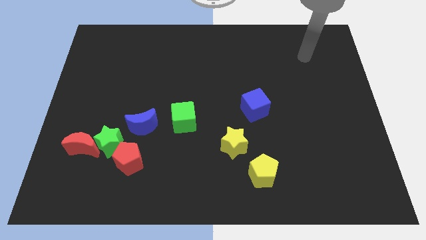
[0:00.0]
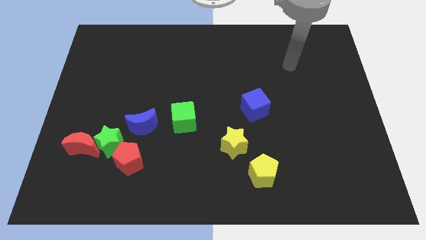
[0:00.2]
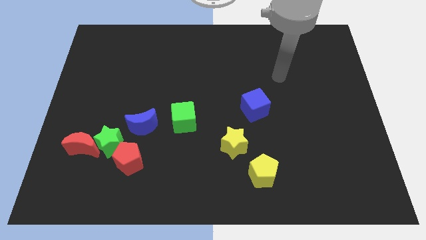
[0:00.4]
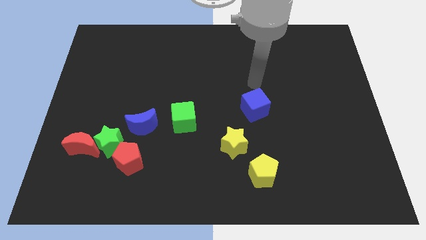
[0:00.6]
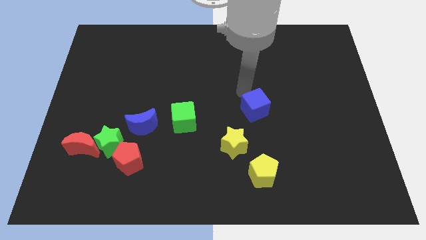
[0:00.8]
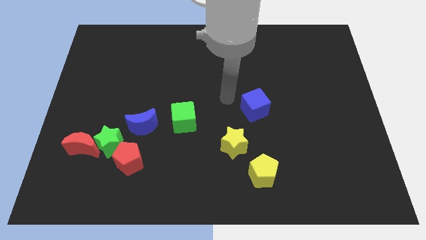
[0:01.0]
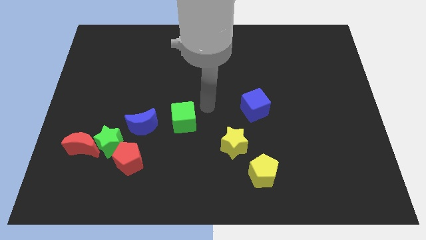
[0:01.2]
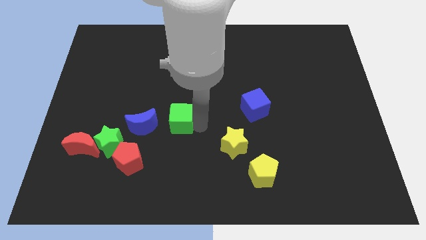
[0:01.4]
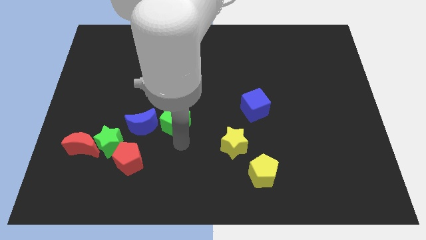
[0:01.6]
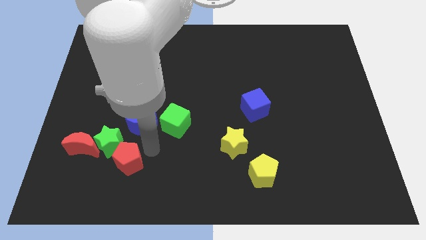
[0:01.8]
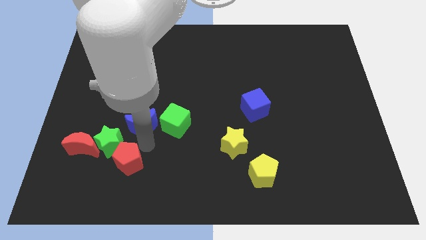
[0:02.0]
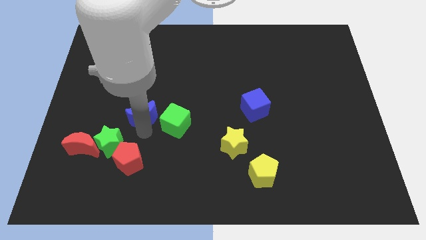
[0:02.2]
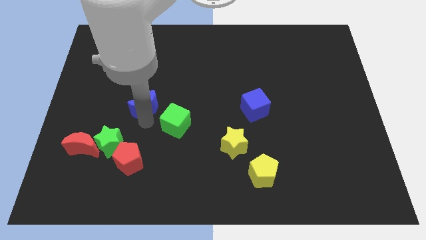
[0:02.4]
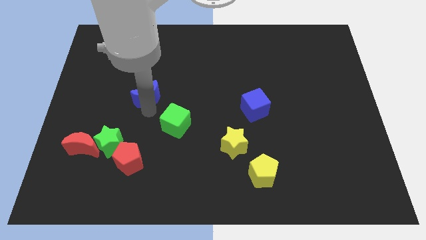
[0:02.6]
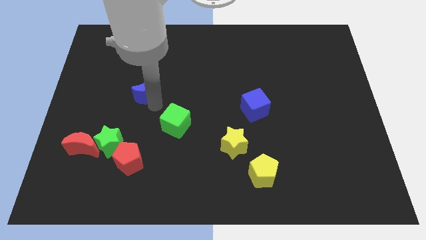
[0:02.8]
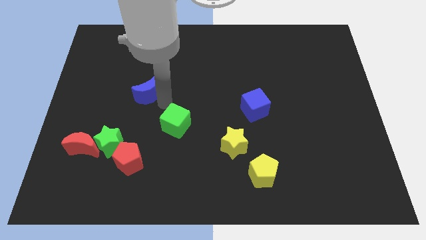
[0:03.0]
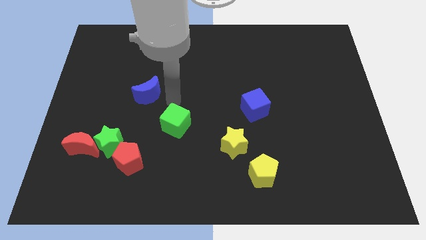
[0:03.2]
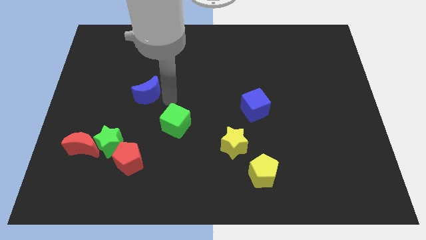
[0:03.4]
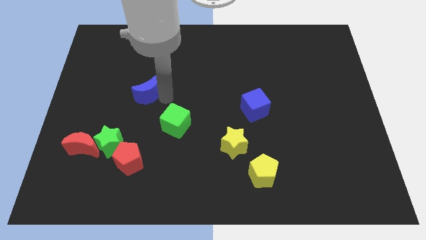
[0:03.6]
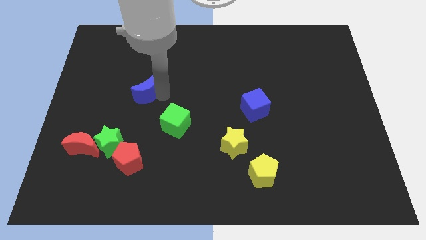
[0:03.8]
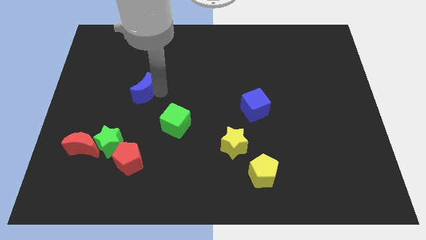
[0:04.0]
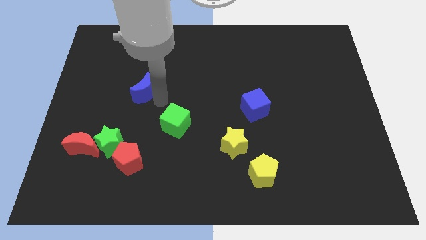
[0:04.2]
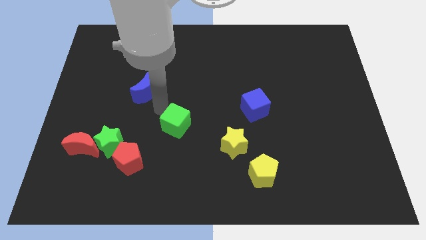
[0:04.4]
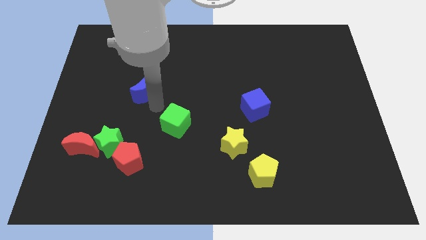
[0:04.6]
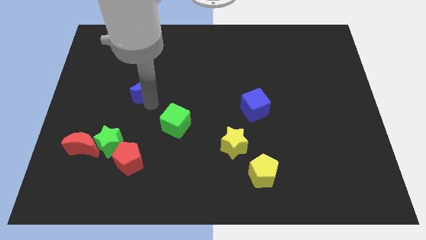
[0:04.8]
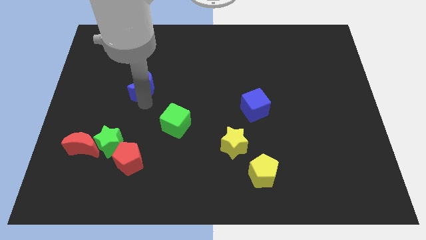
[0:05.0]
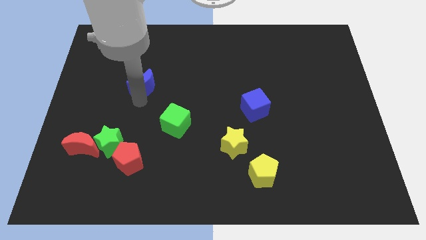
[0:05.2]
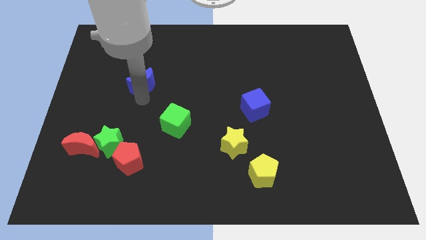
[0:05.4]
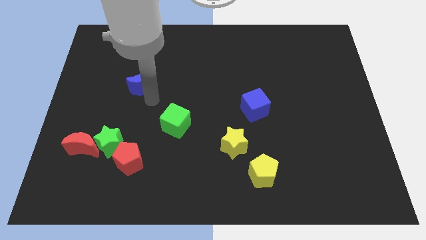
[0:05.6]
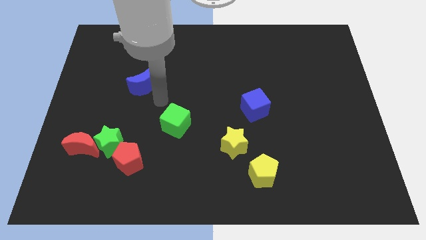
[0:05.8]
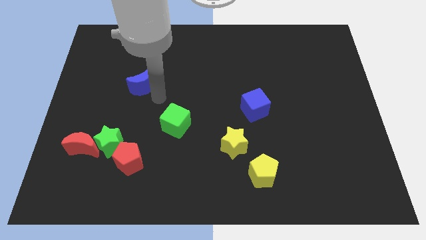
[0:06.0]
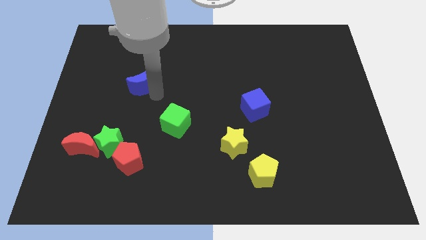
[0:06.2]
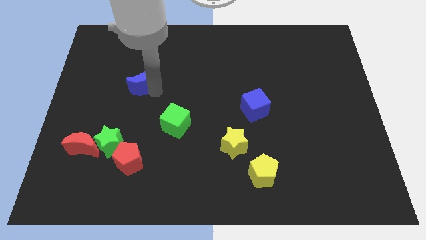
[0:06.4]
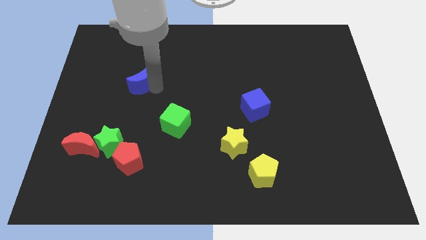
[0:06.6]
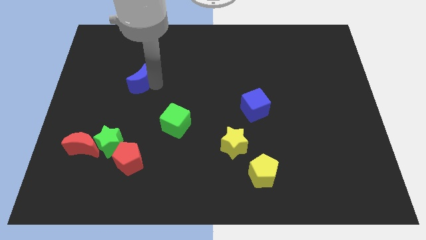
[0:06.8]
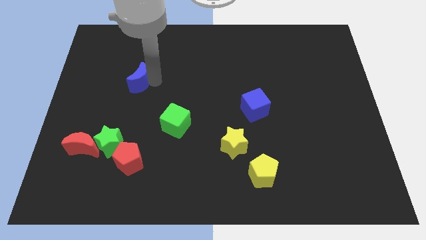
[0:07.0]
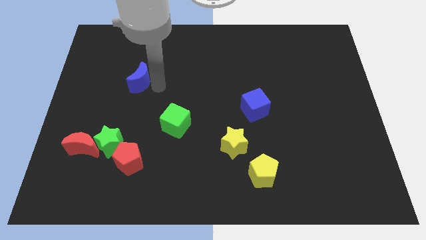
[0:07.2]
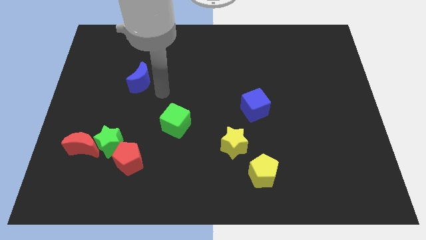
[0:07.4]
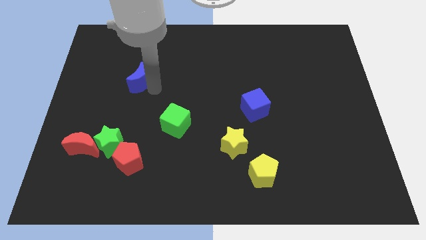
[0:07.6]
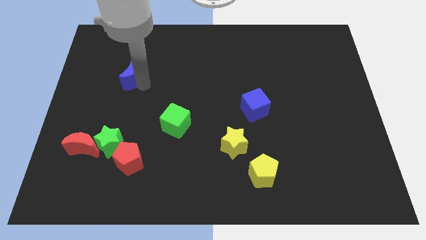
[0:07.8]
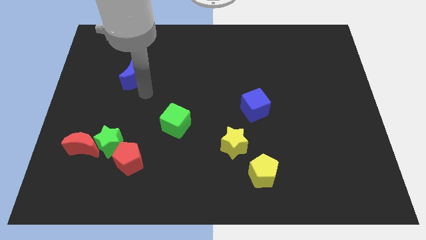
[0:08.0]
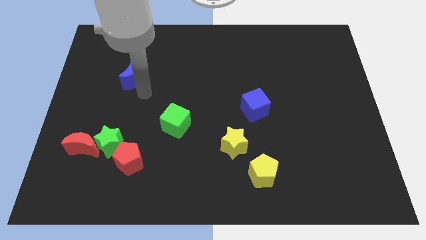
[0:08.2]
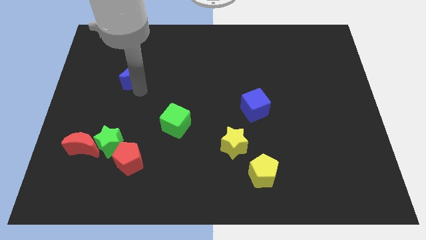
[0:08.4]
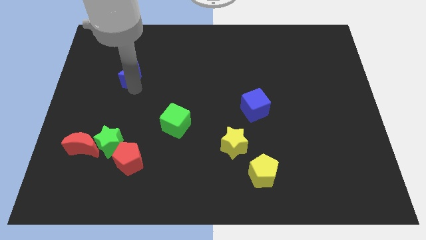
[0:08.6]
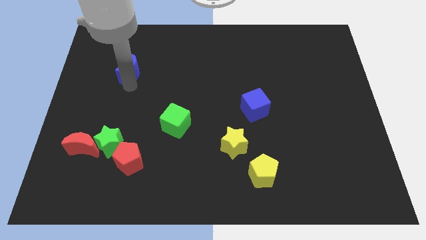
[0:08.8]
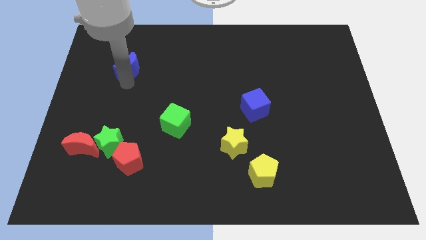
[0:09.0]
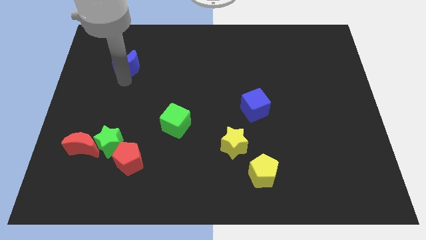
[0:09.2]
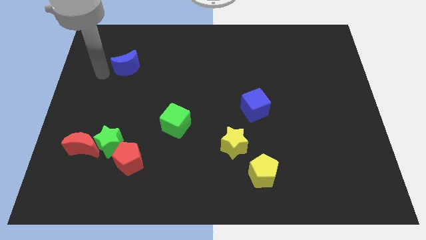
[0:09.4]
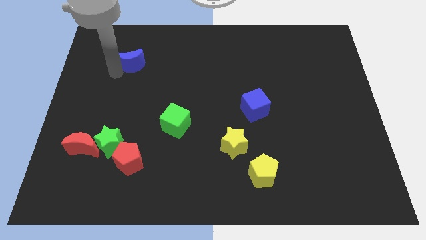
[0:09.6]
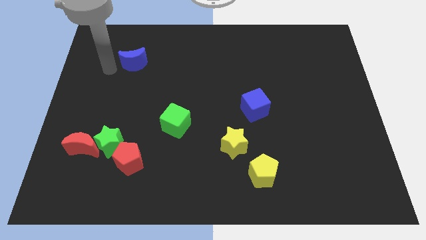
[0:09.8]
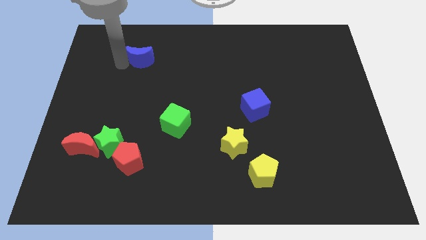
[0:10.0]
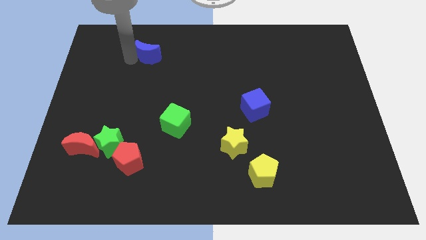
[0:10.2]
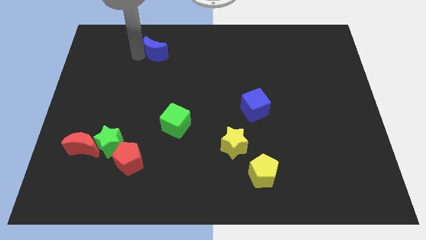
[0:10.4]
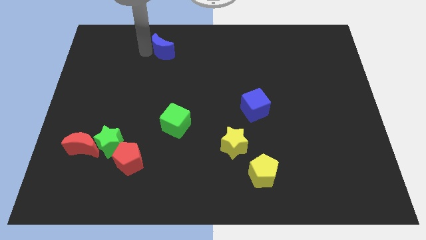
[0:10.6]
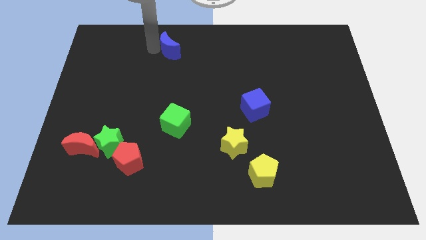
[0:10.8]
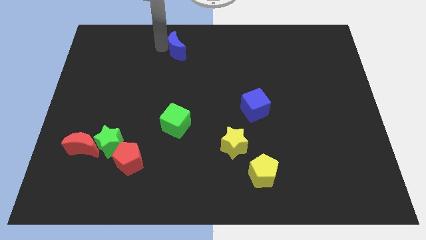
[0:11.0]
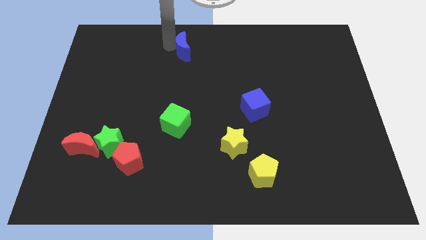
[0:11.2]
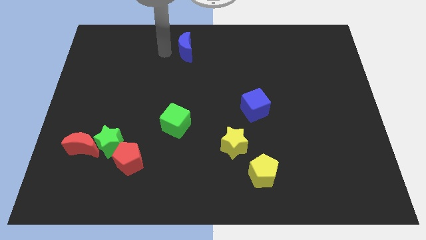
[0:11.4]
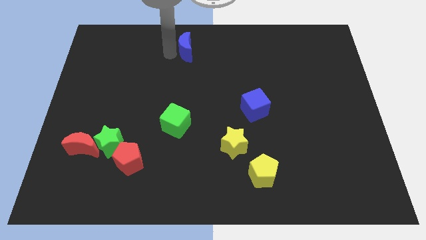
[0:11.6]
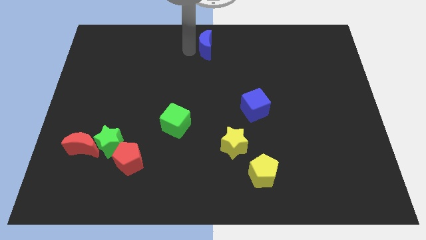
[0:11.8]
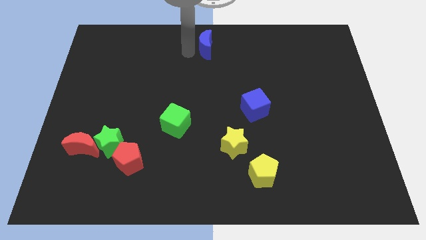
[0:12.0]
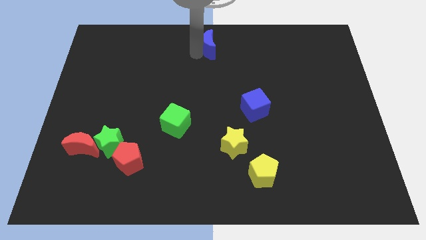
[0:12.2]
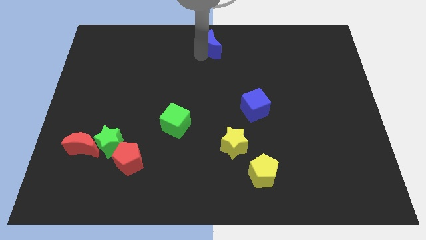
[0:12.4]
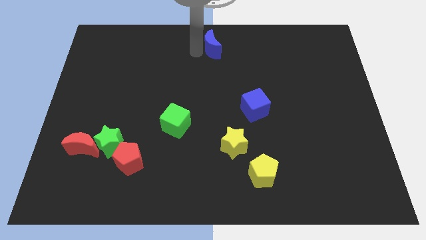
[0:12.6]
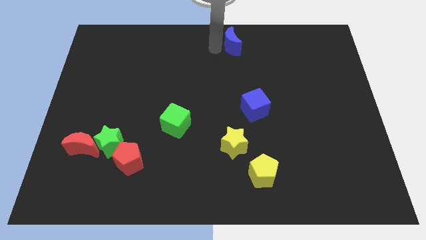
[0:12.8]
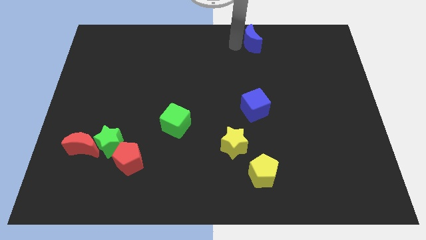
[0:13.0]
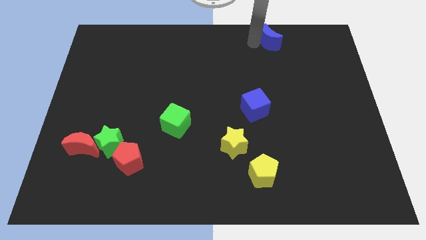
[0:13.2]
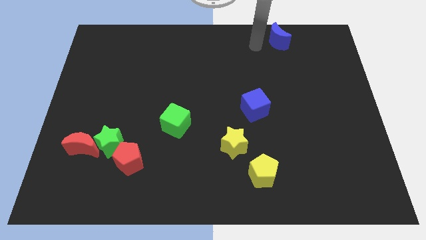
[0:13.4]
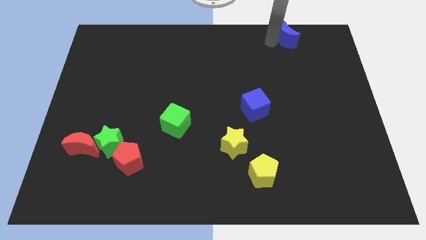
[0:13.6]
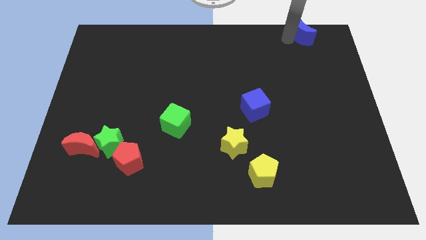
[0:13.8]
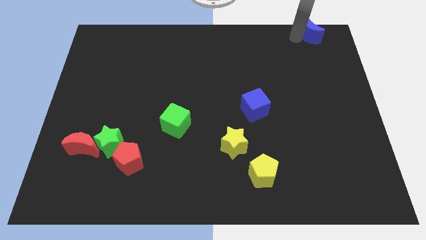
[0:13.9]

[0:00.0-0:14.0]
put the blue moon to the top right of the board
